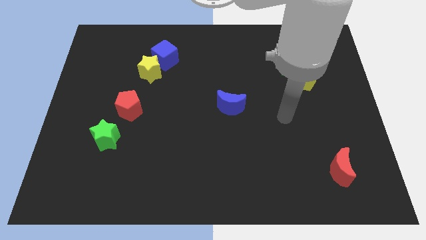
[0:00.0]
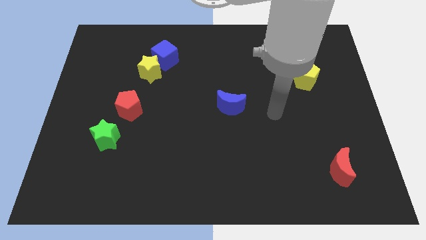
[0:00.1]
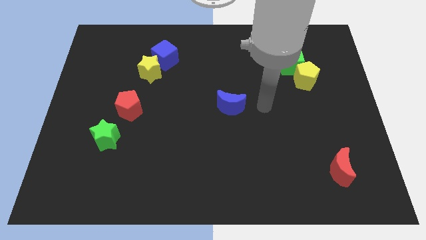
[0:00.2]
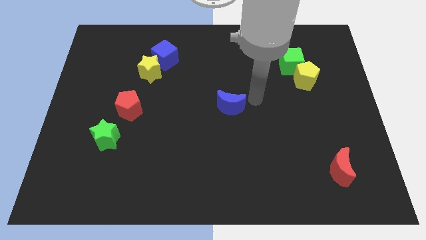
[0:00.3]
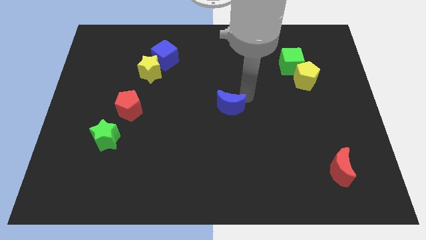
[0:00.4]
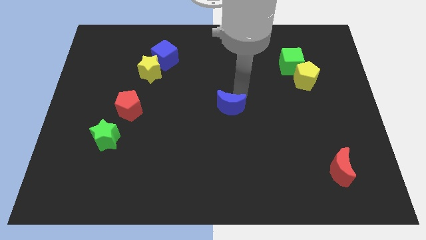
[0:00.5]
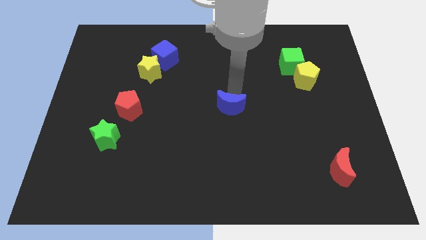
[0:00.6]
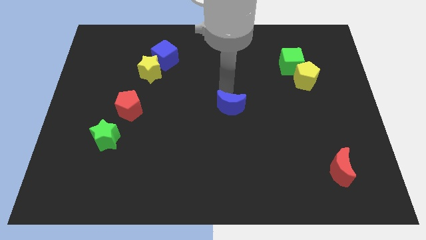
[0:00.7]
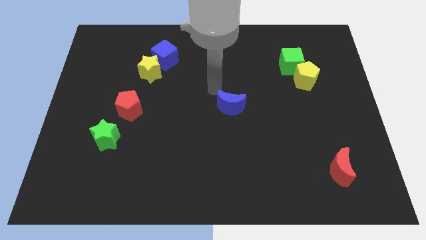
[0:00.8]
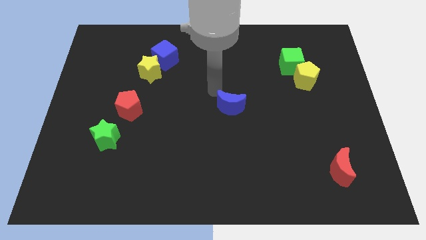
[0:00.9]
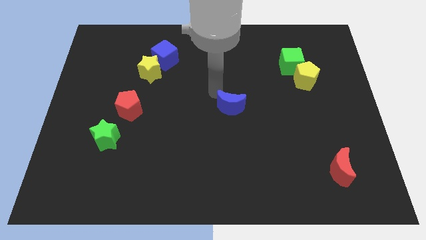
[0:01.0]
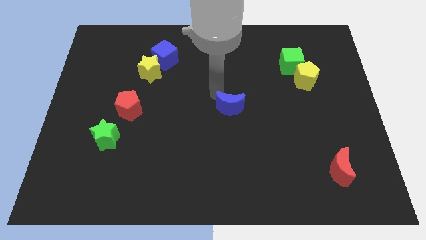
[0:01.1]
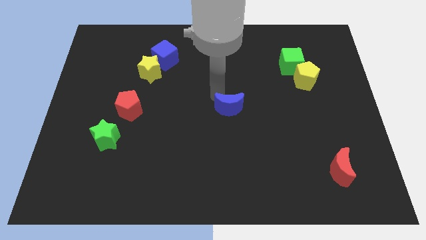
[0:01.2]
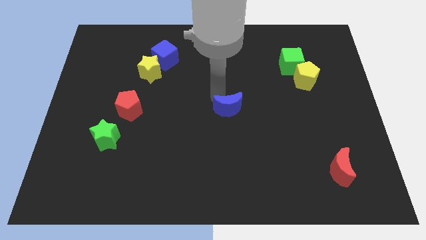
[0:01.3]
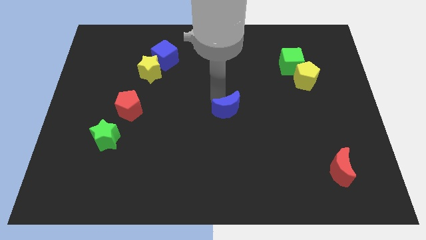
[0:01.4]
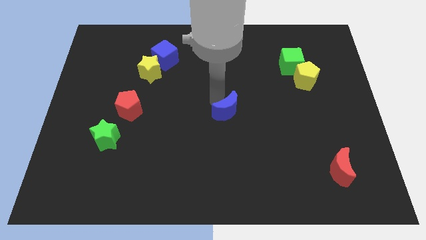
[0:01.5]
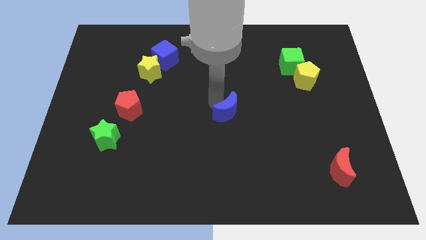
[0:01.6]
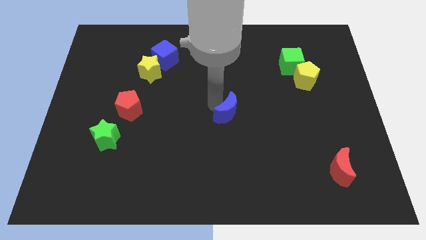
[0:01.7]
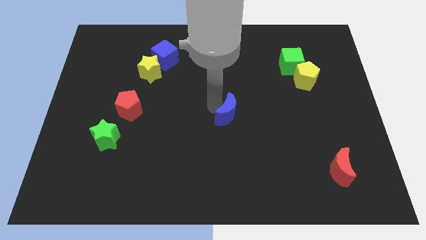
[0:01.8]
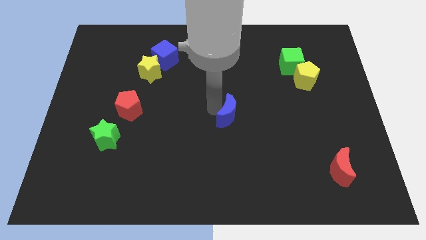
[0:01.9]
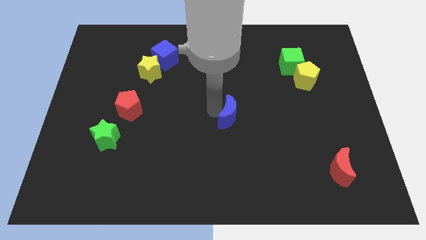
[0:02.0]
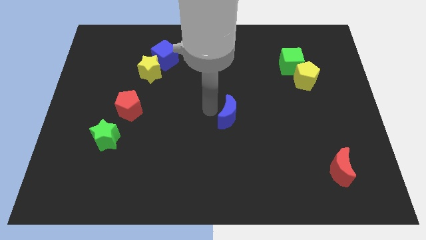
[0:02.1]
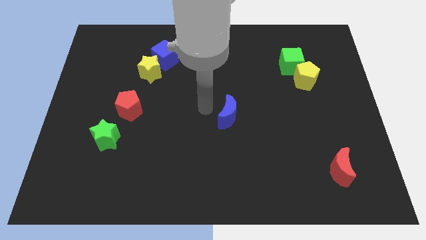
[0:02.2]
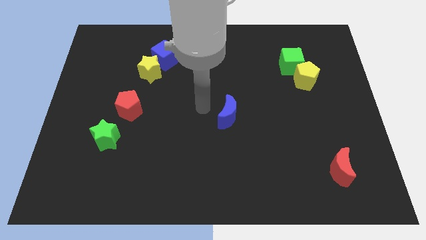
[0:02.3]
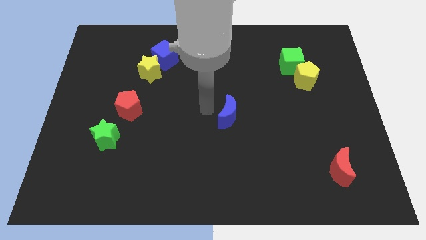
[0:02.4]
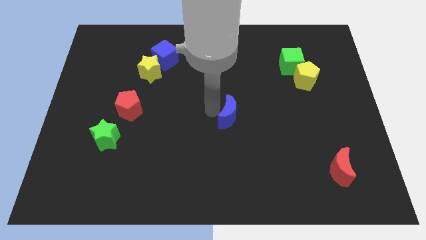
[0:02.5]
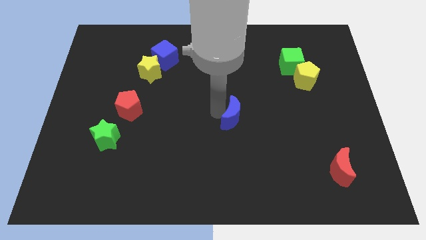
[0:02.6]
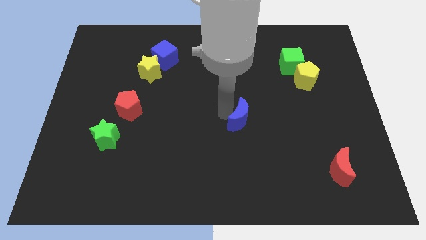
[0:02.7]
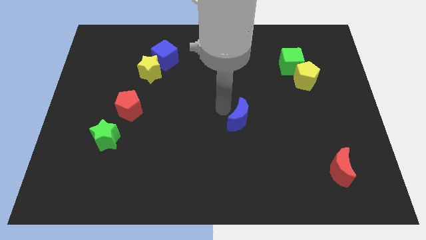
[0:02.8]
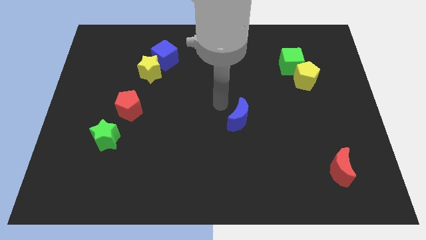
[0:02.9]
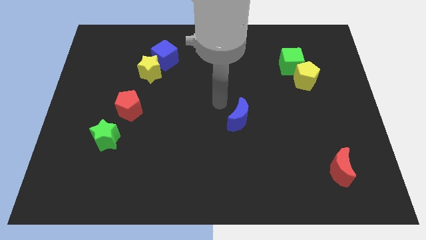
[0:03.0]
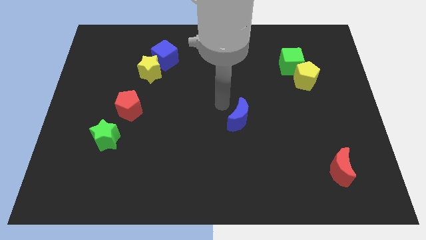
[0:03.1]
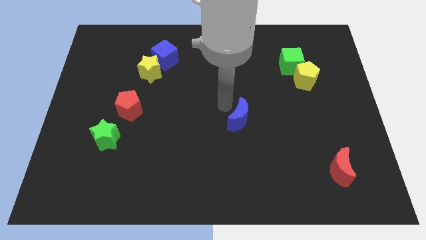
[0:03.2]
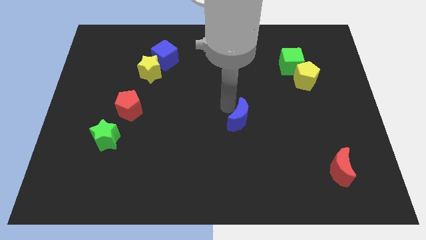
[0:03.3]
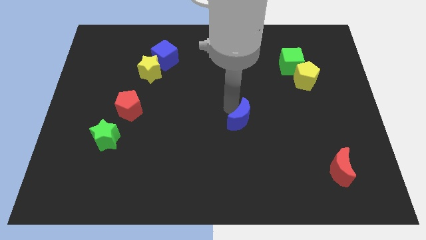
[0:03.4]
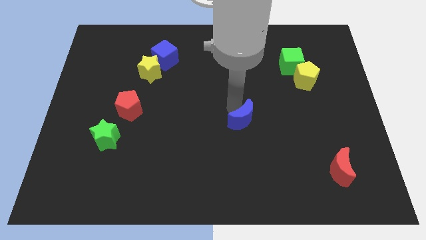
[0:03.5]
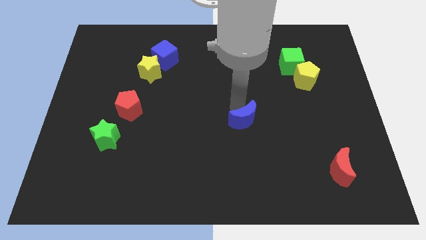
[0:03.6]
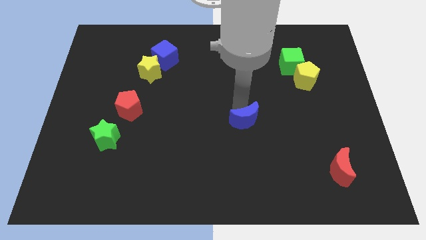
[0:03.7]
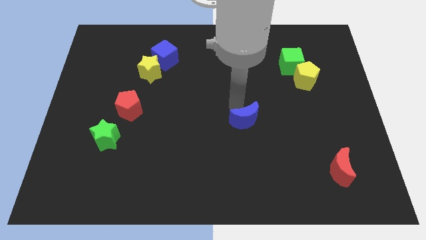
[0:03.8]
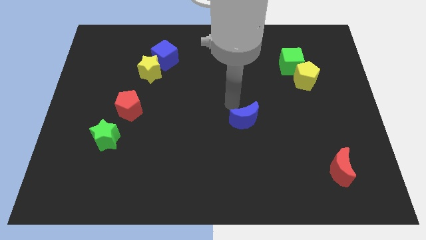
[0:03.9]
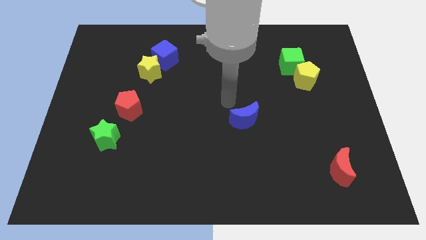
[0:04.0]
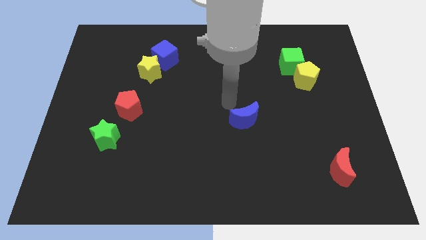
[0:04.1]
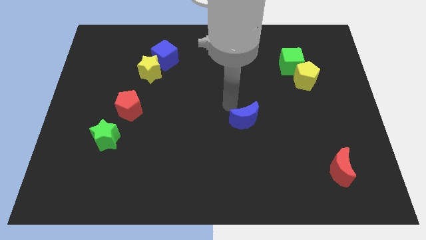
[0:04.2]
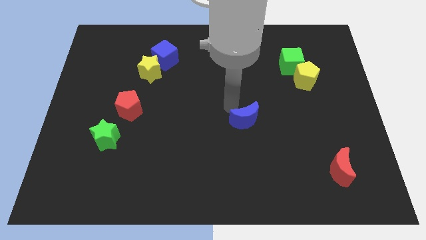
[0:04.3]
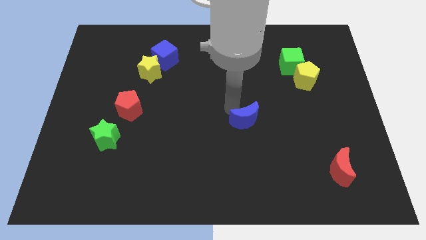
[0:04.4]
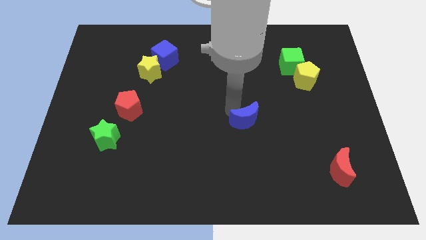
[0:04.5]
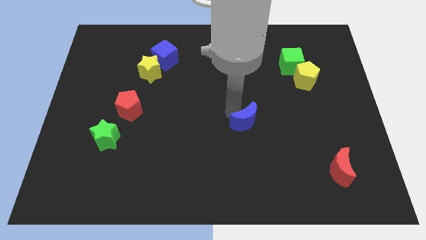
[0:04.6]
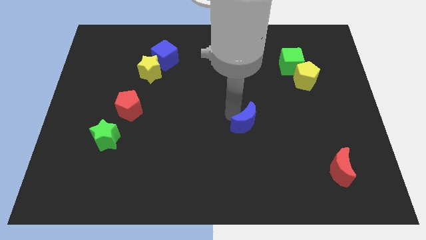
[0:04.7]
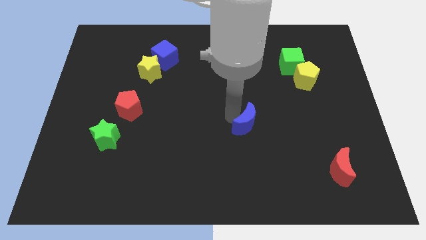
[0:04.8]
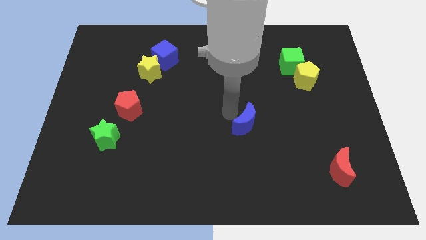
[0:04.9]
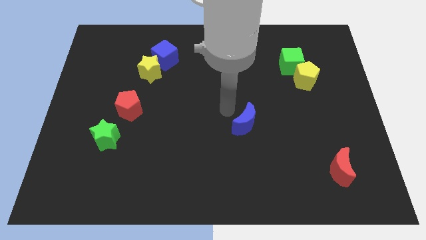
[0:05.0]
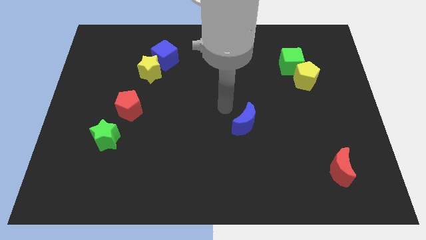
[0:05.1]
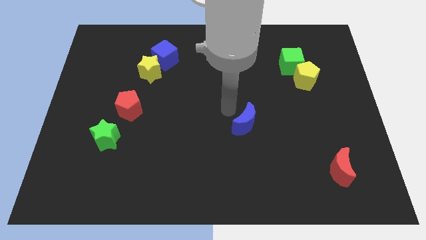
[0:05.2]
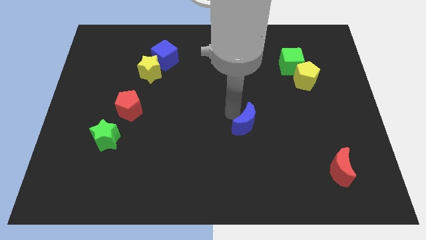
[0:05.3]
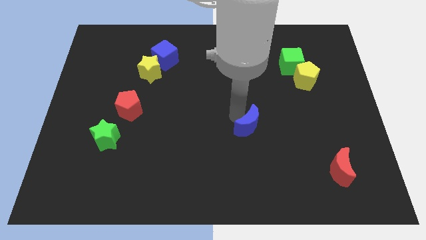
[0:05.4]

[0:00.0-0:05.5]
move the blue moon a bit down and right diagonally

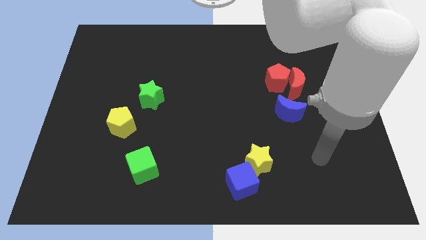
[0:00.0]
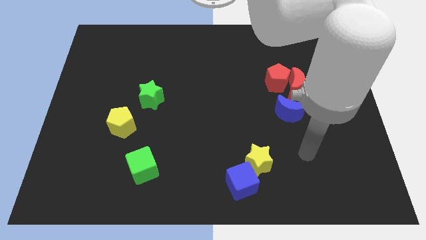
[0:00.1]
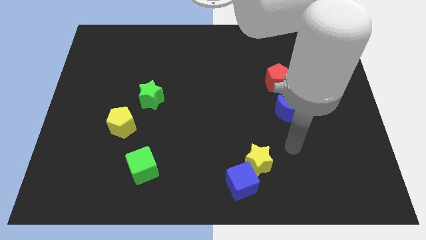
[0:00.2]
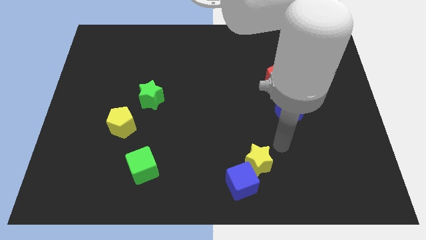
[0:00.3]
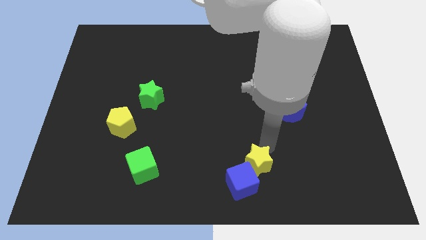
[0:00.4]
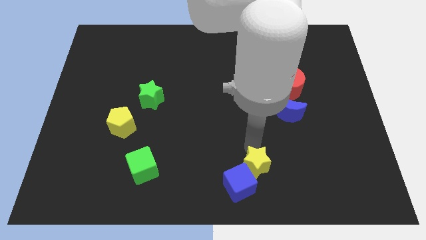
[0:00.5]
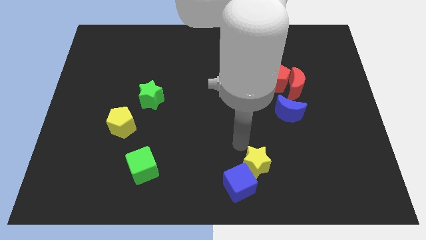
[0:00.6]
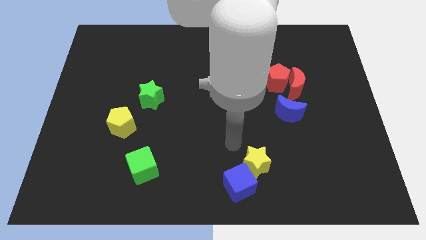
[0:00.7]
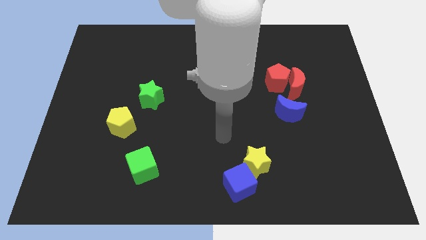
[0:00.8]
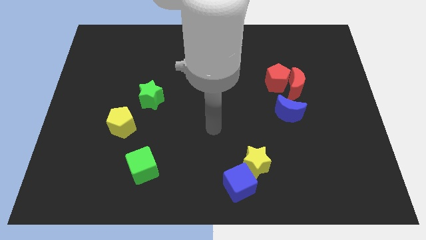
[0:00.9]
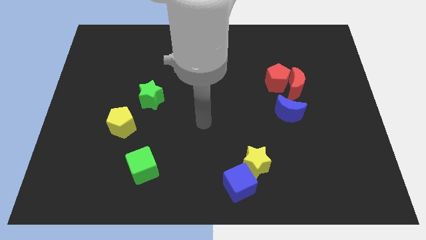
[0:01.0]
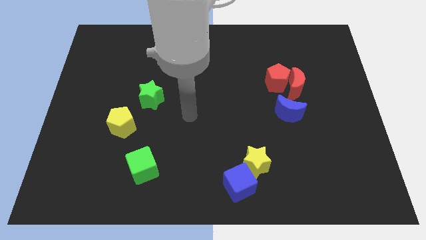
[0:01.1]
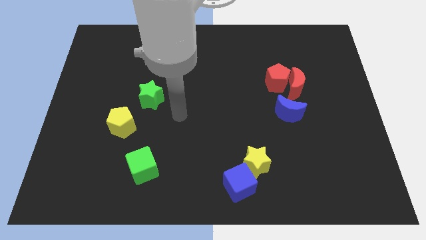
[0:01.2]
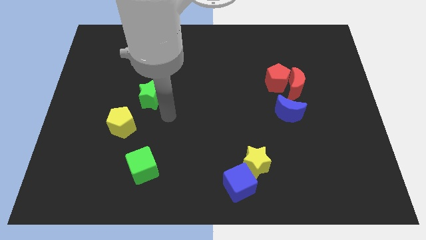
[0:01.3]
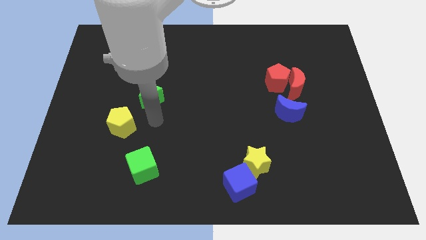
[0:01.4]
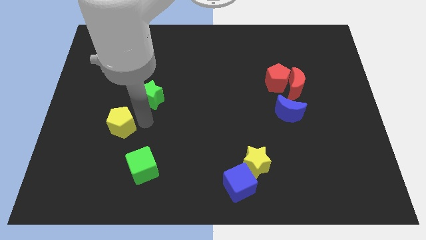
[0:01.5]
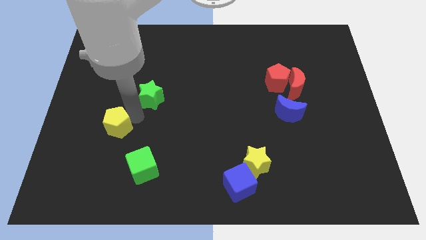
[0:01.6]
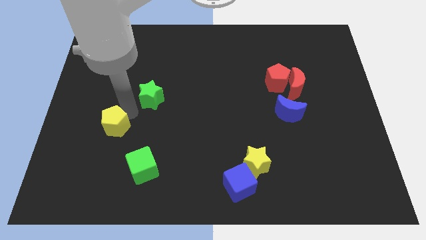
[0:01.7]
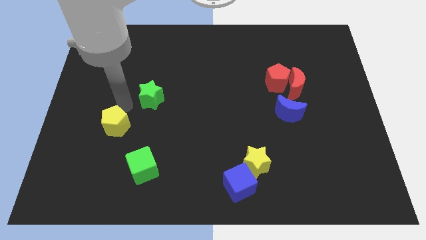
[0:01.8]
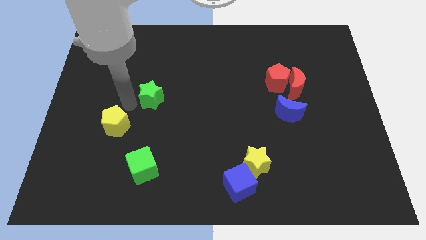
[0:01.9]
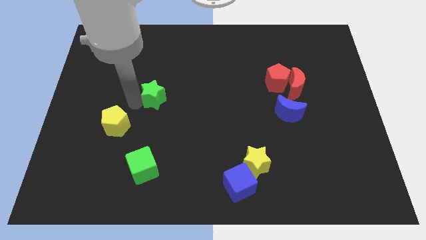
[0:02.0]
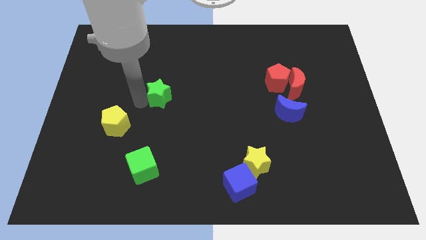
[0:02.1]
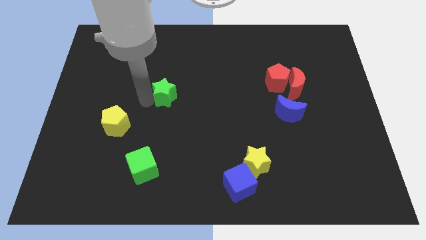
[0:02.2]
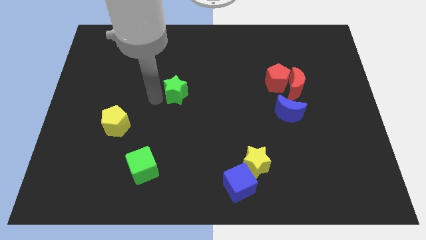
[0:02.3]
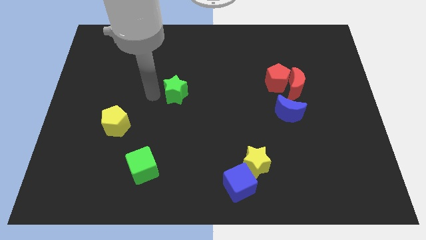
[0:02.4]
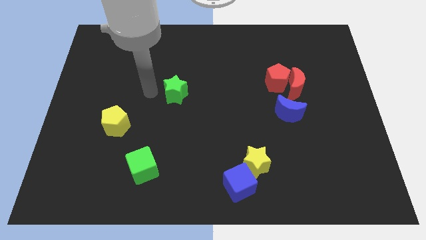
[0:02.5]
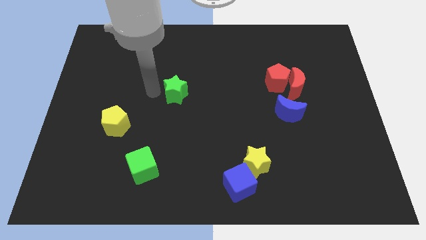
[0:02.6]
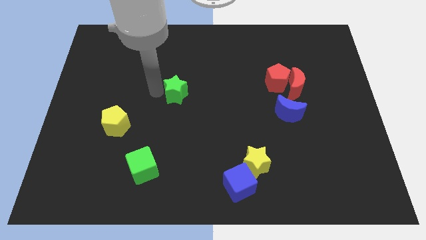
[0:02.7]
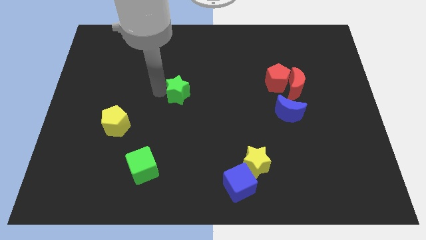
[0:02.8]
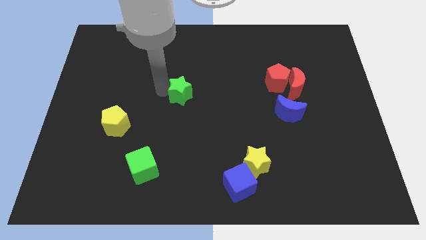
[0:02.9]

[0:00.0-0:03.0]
slightly move the green star right
